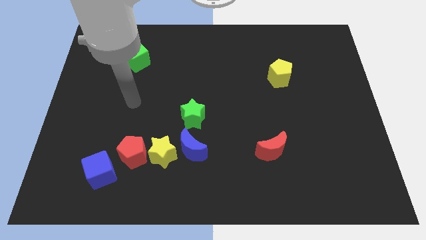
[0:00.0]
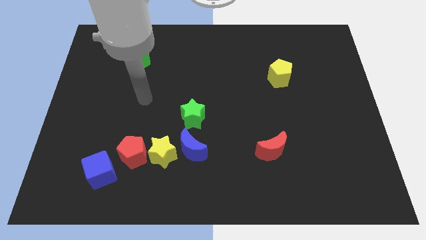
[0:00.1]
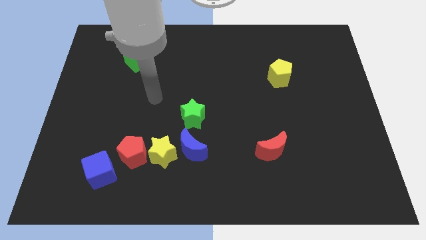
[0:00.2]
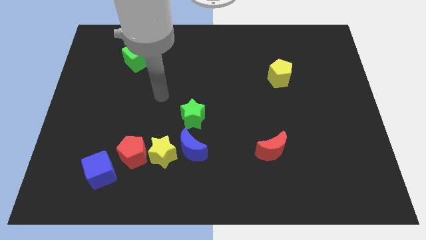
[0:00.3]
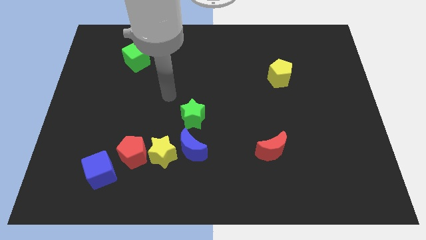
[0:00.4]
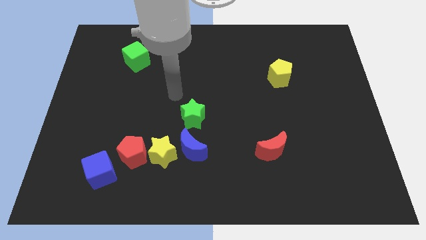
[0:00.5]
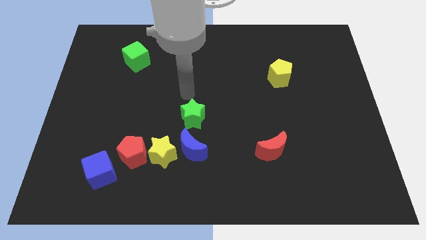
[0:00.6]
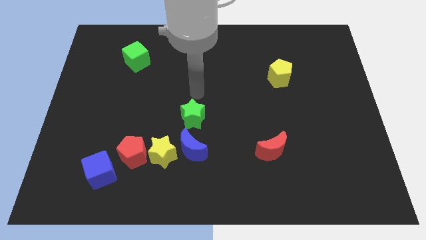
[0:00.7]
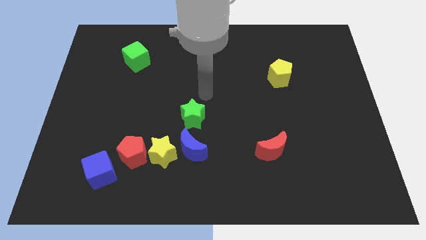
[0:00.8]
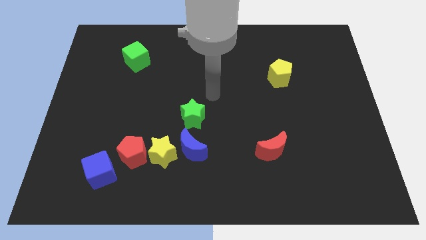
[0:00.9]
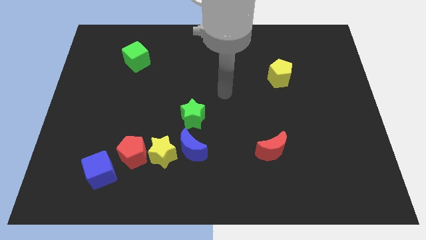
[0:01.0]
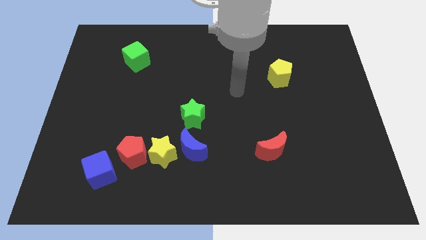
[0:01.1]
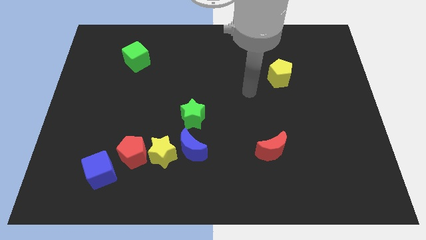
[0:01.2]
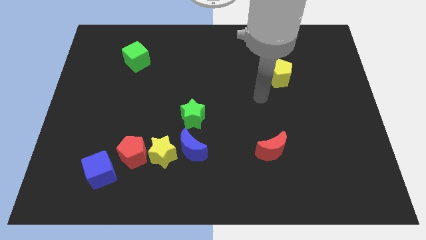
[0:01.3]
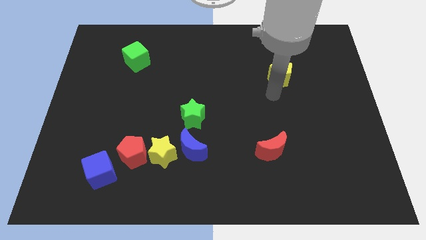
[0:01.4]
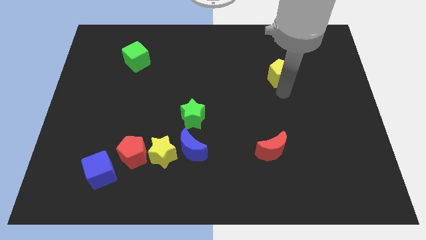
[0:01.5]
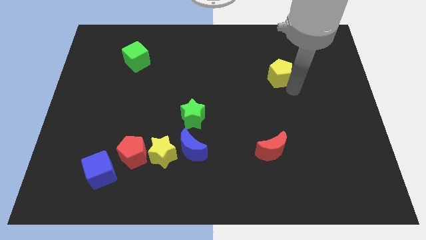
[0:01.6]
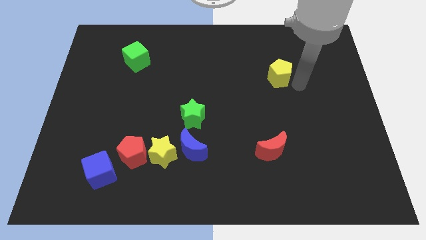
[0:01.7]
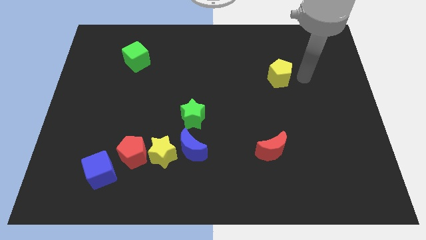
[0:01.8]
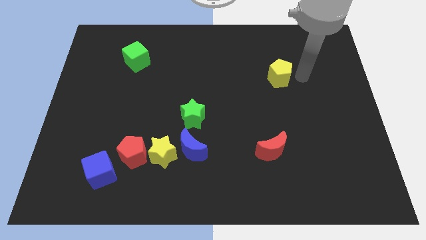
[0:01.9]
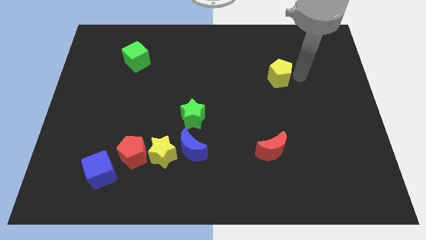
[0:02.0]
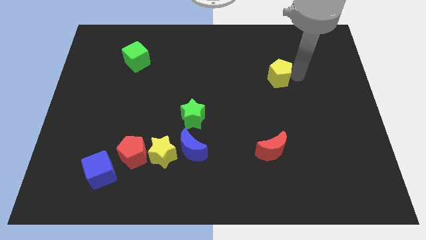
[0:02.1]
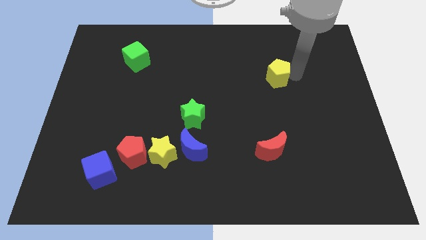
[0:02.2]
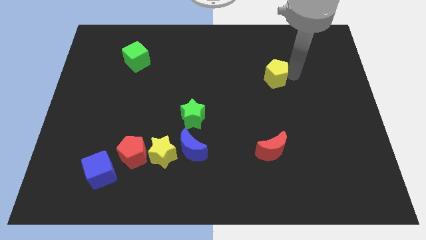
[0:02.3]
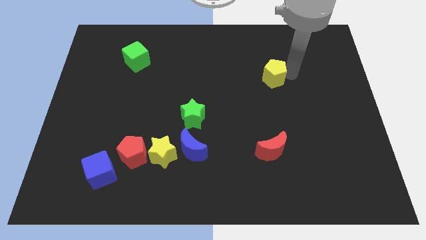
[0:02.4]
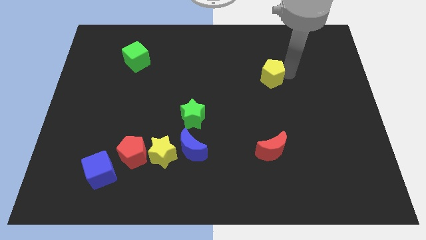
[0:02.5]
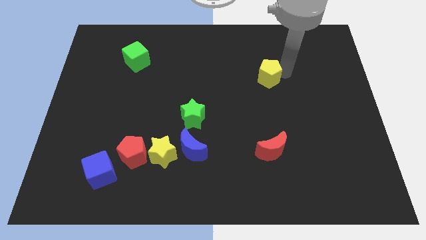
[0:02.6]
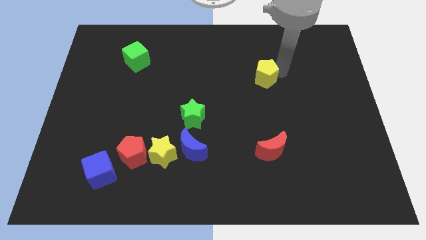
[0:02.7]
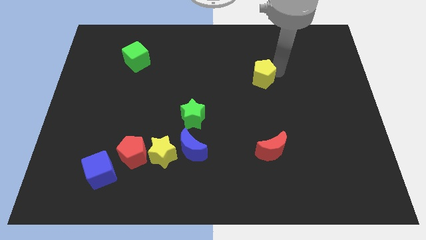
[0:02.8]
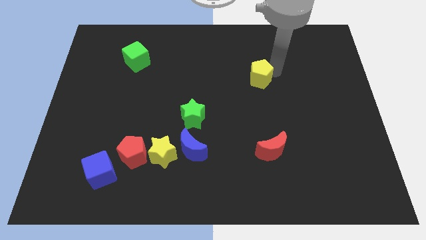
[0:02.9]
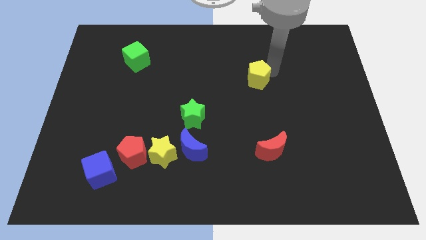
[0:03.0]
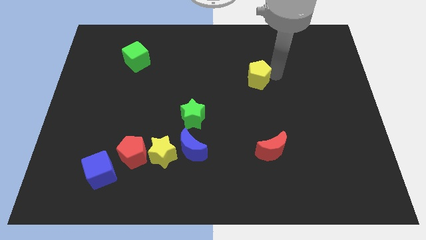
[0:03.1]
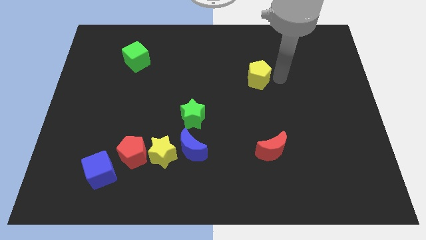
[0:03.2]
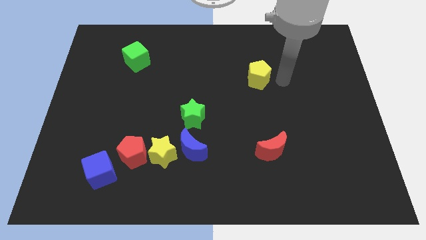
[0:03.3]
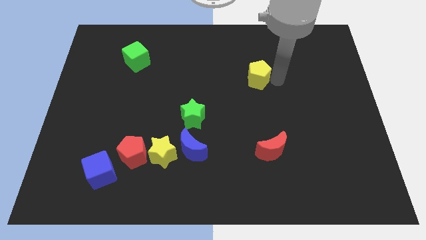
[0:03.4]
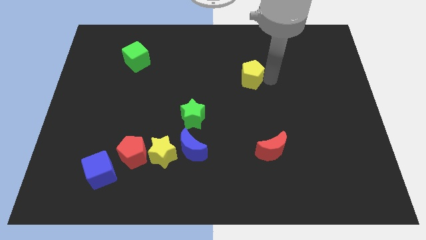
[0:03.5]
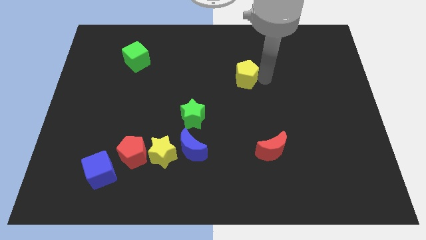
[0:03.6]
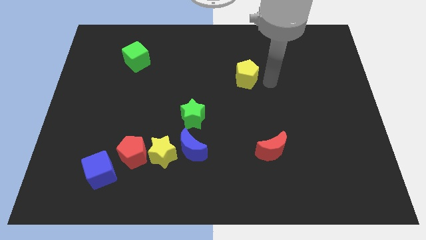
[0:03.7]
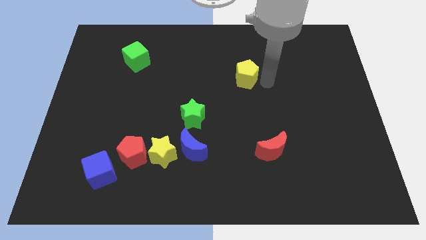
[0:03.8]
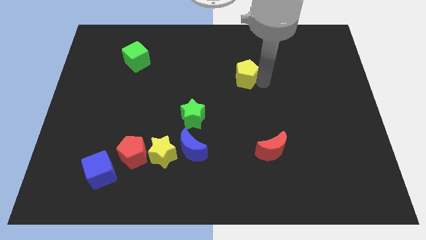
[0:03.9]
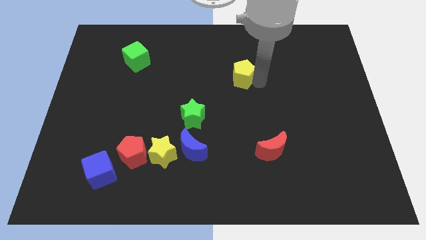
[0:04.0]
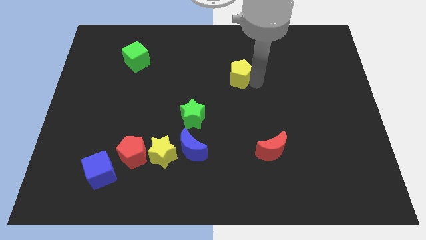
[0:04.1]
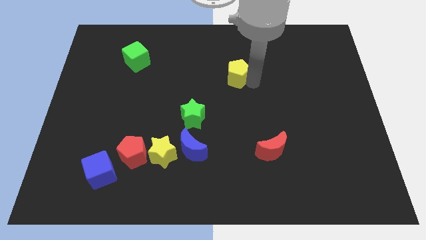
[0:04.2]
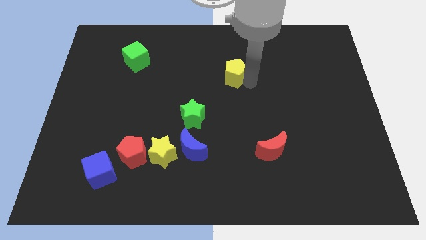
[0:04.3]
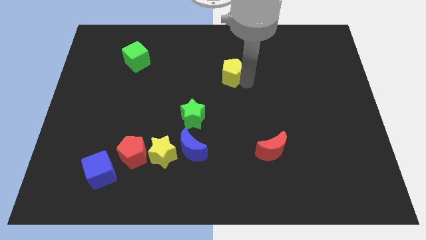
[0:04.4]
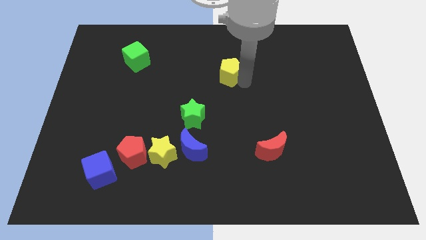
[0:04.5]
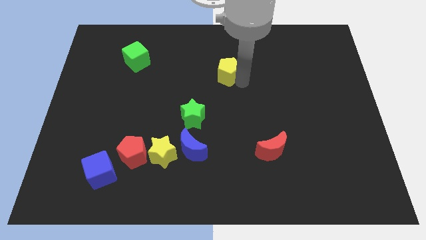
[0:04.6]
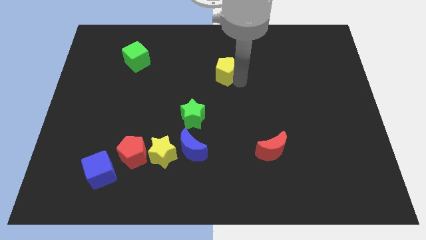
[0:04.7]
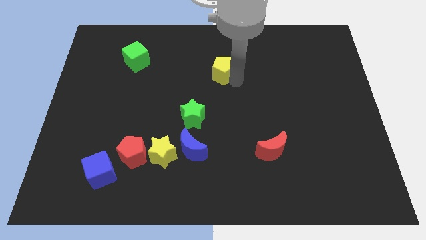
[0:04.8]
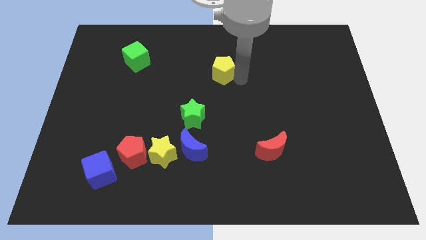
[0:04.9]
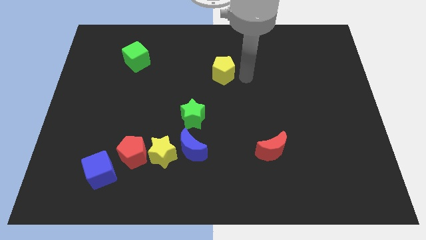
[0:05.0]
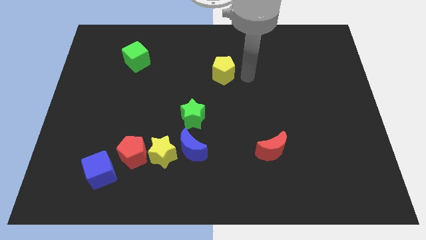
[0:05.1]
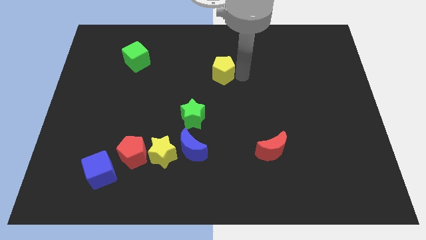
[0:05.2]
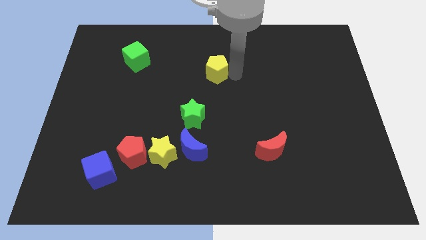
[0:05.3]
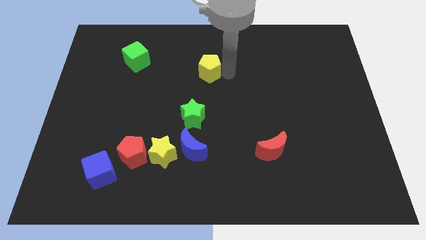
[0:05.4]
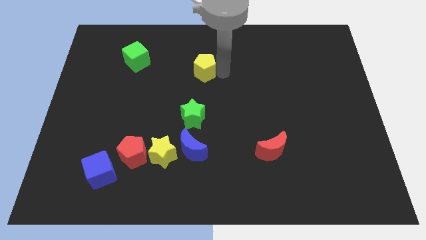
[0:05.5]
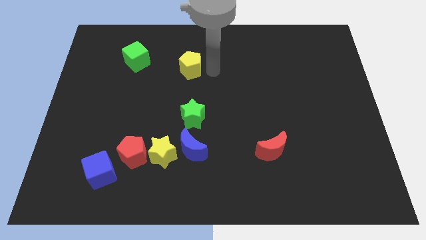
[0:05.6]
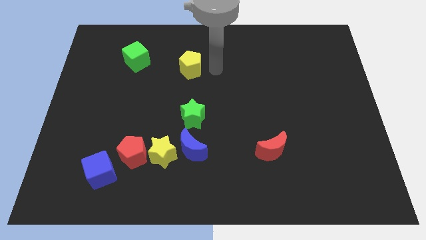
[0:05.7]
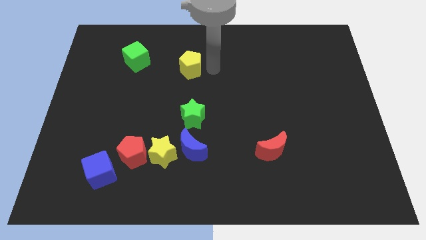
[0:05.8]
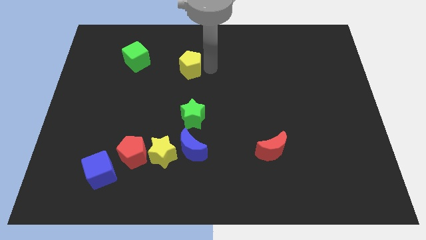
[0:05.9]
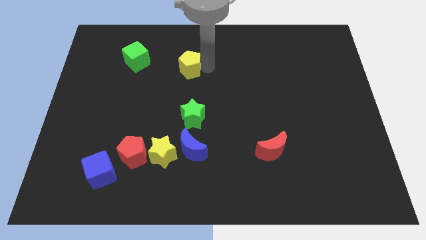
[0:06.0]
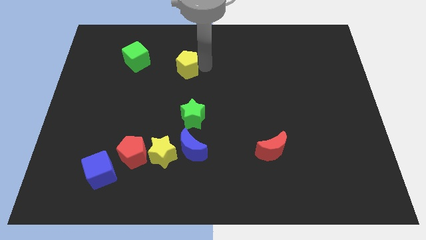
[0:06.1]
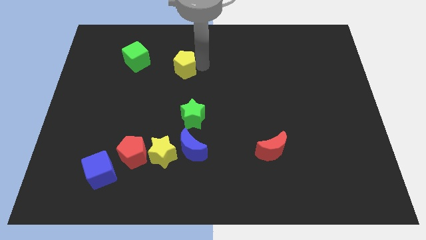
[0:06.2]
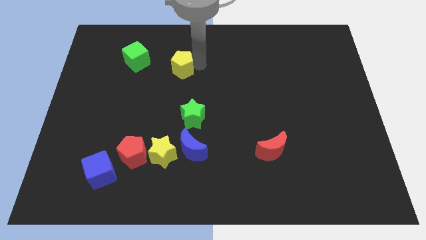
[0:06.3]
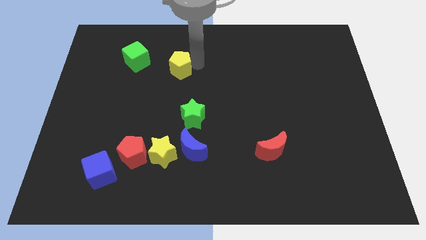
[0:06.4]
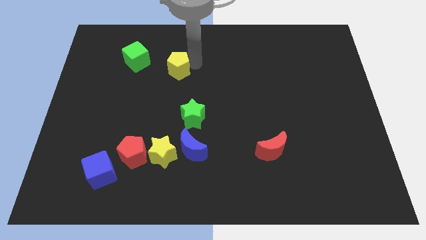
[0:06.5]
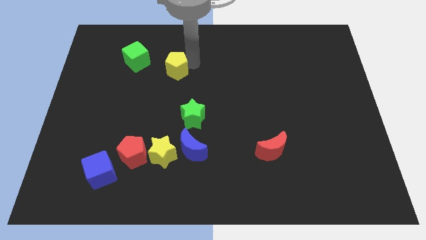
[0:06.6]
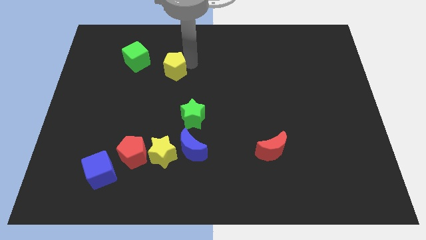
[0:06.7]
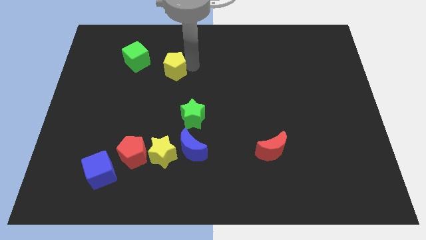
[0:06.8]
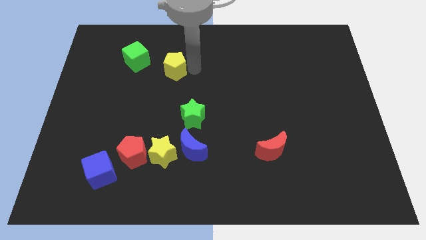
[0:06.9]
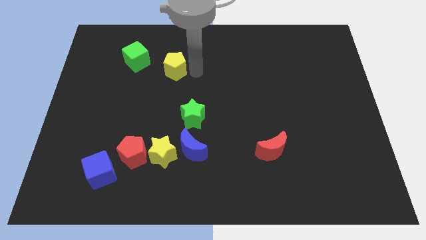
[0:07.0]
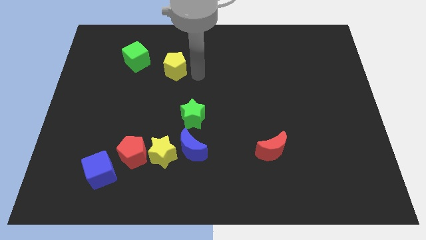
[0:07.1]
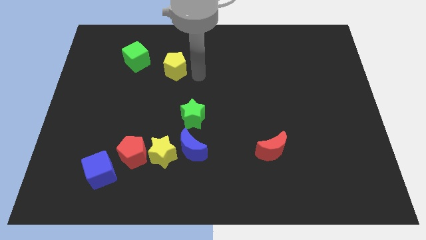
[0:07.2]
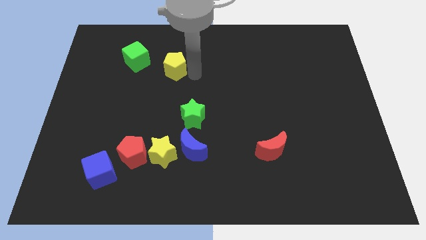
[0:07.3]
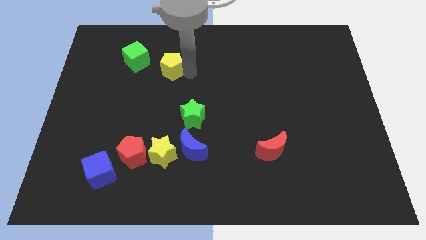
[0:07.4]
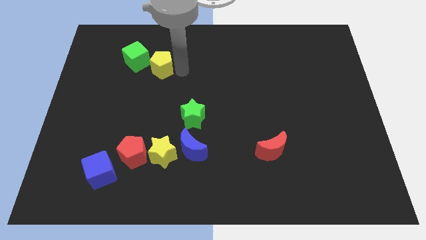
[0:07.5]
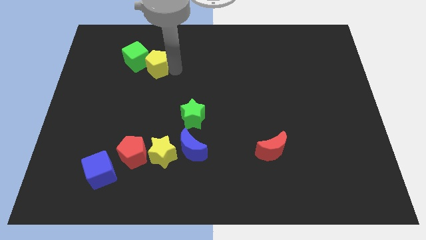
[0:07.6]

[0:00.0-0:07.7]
put the yellow pentagon next to the green cube
